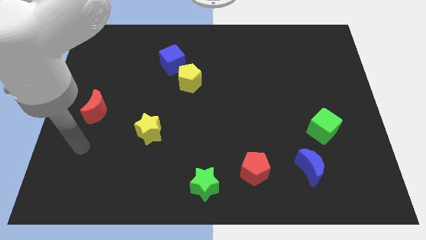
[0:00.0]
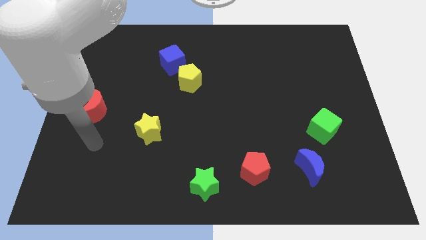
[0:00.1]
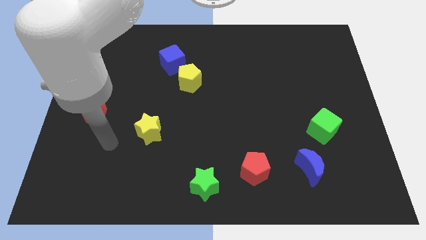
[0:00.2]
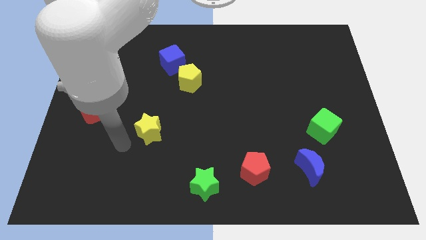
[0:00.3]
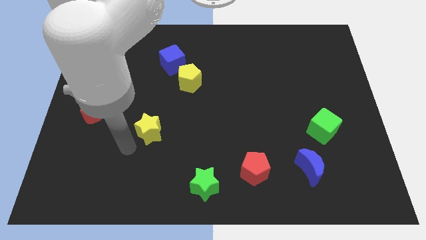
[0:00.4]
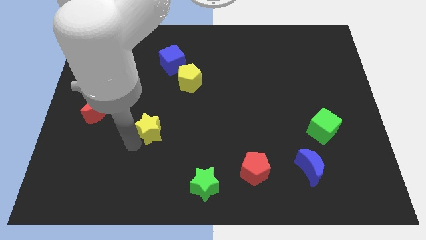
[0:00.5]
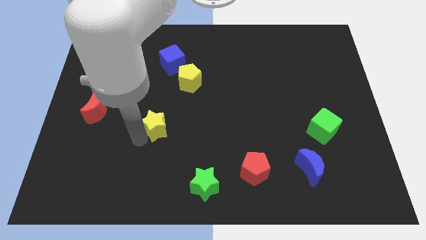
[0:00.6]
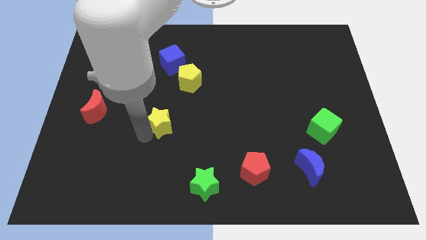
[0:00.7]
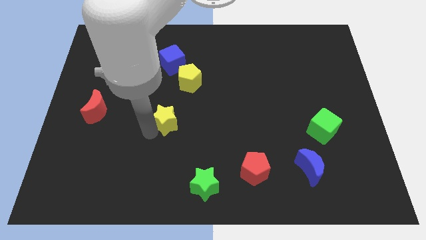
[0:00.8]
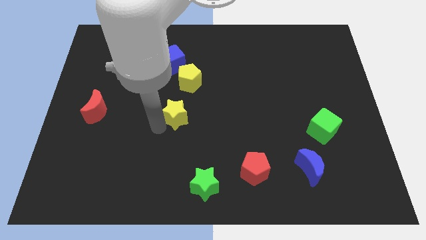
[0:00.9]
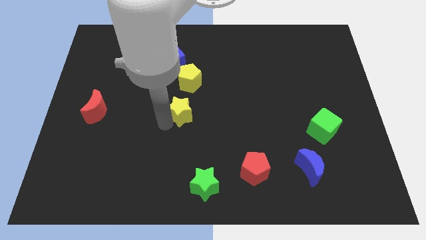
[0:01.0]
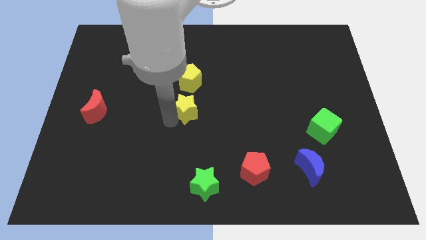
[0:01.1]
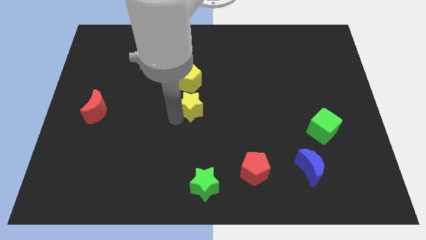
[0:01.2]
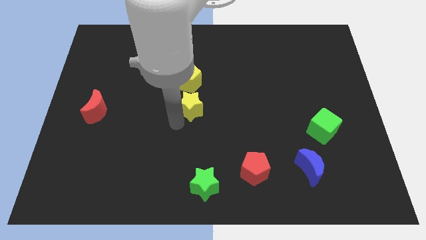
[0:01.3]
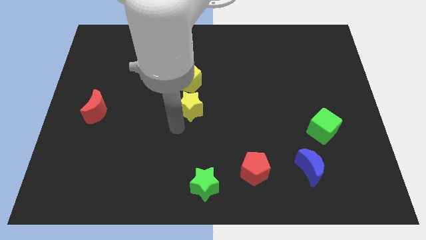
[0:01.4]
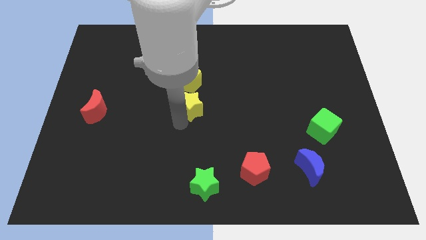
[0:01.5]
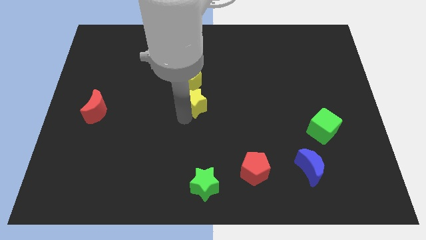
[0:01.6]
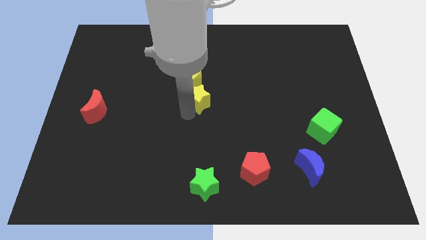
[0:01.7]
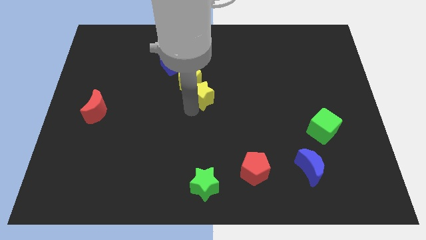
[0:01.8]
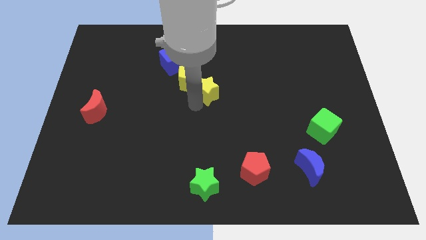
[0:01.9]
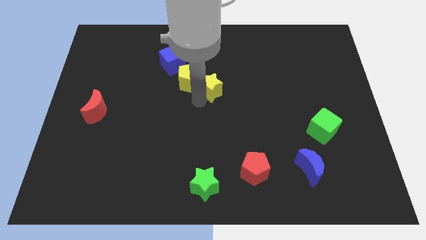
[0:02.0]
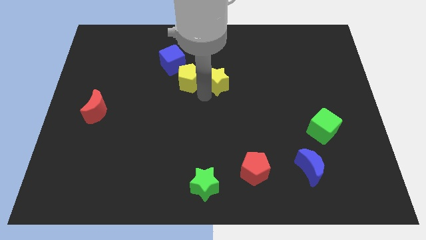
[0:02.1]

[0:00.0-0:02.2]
move the yellow star upwards and to the right

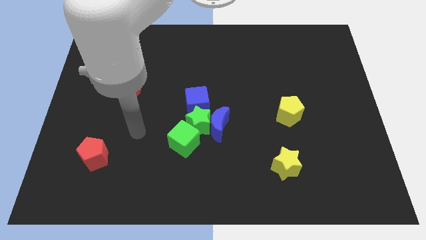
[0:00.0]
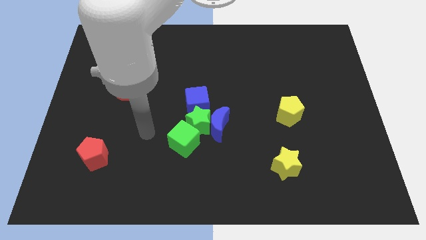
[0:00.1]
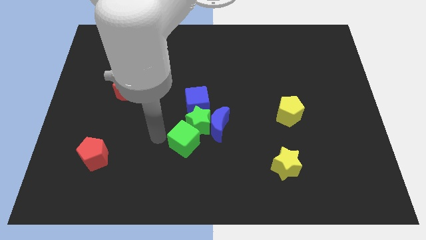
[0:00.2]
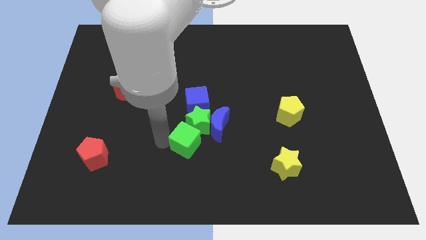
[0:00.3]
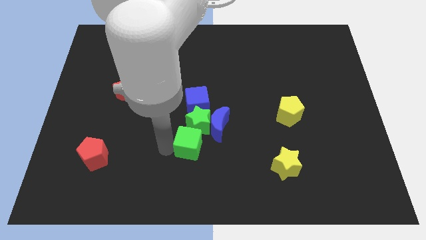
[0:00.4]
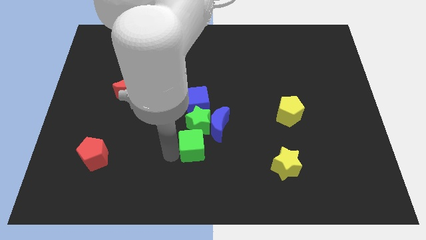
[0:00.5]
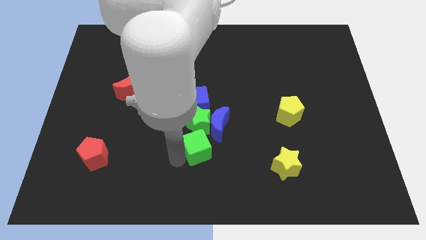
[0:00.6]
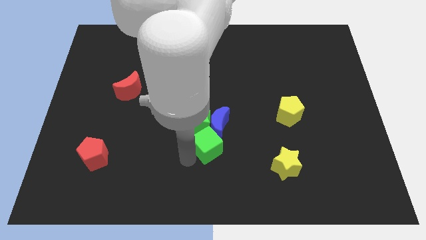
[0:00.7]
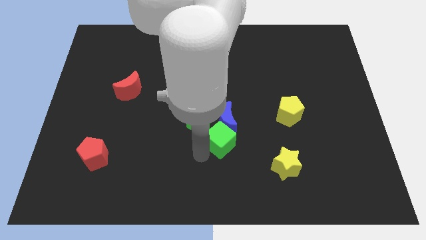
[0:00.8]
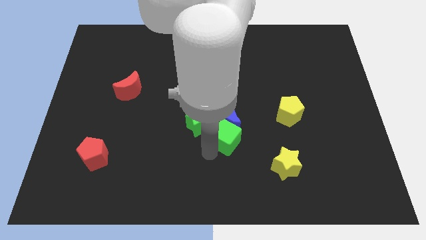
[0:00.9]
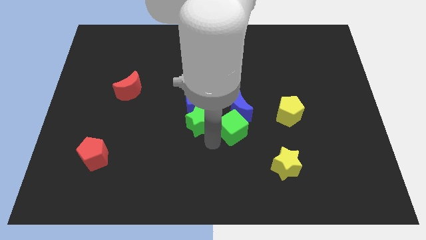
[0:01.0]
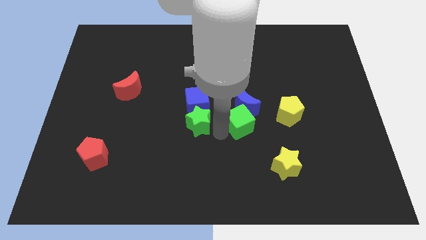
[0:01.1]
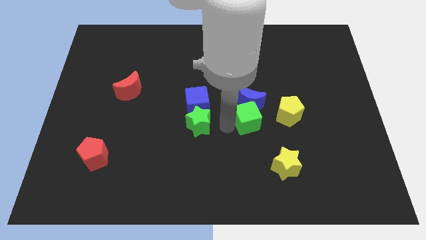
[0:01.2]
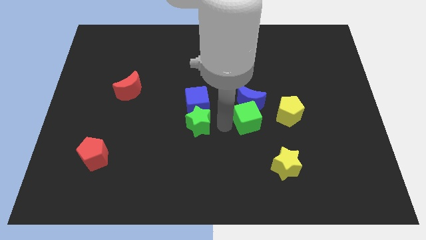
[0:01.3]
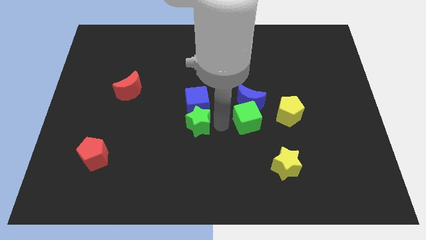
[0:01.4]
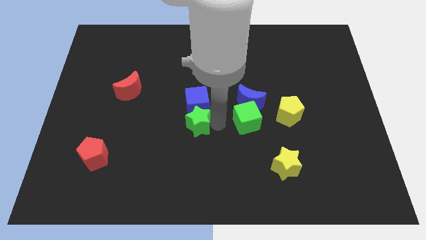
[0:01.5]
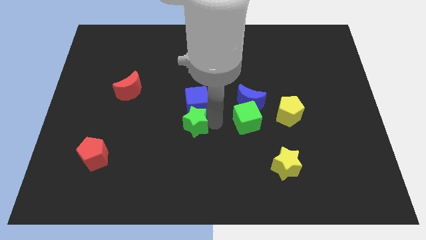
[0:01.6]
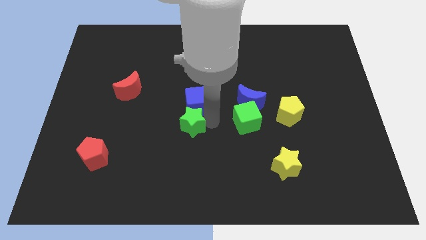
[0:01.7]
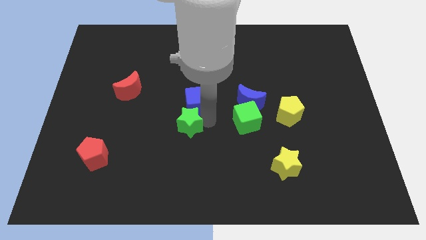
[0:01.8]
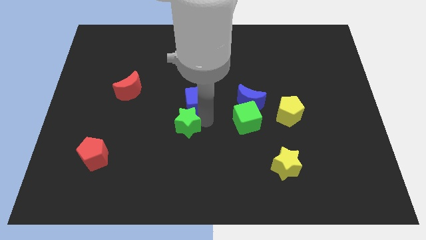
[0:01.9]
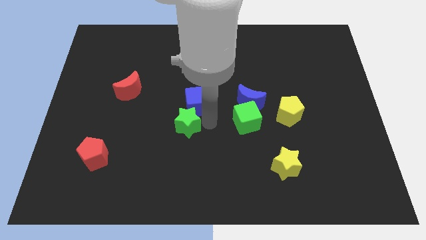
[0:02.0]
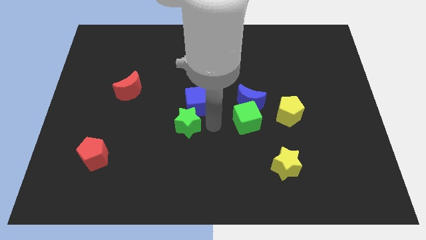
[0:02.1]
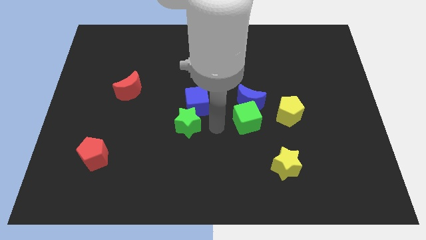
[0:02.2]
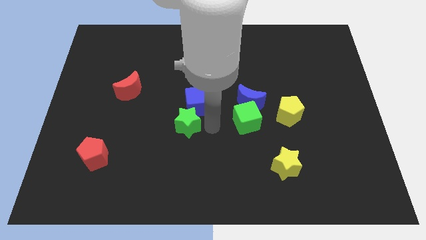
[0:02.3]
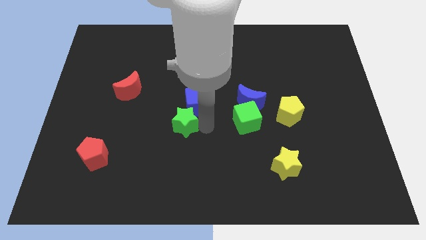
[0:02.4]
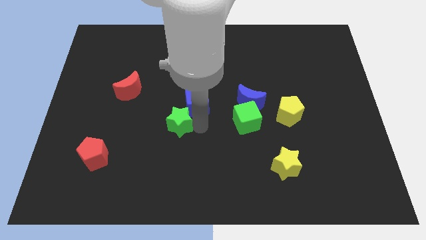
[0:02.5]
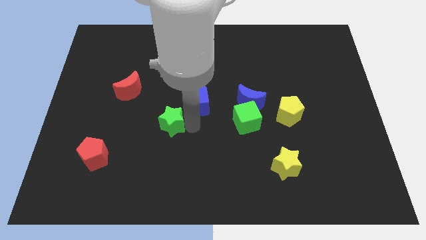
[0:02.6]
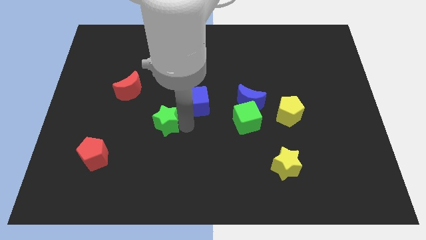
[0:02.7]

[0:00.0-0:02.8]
move the green star left a bit

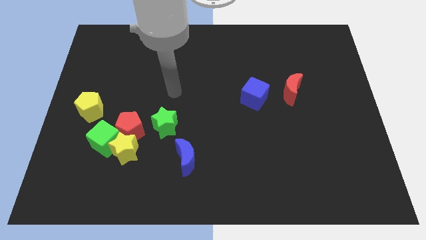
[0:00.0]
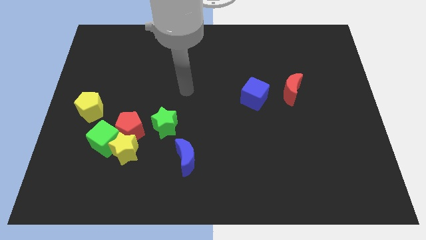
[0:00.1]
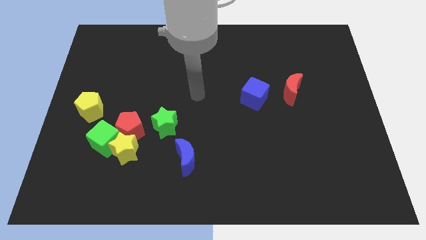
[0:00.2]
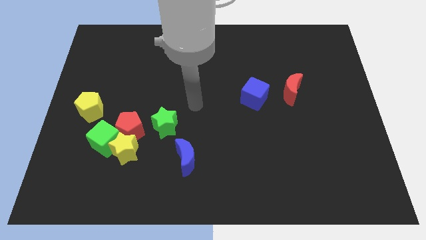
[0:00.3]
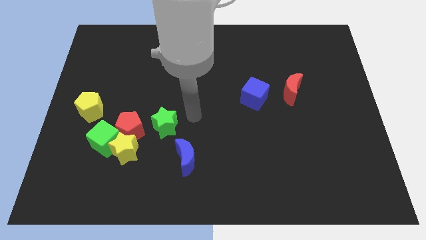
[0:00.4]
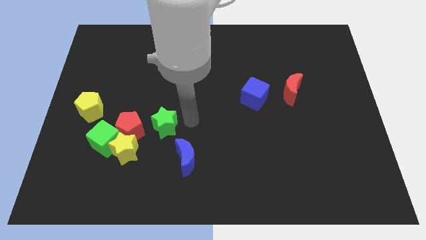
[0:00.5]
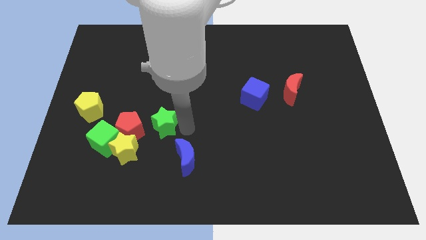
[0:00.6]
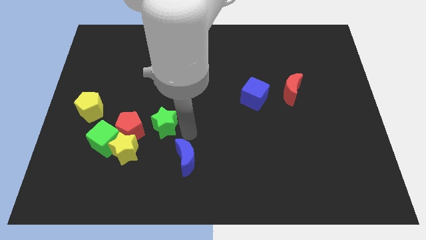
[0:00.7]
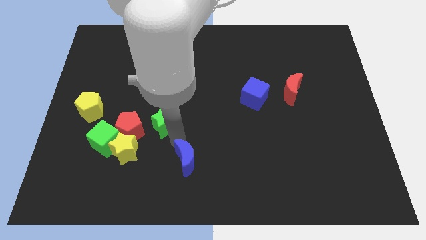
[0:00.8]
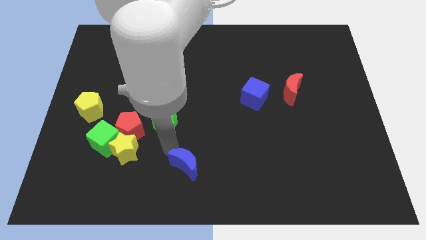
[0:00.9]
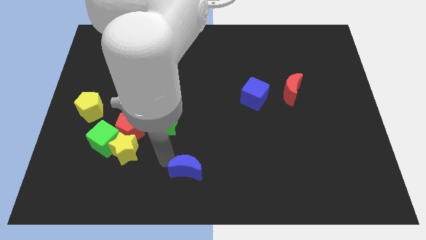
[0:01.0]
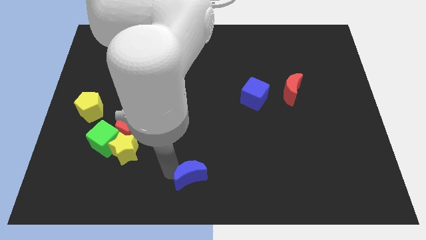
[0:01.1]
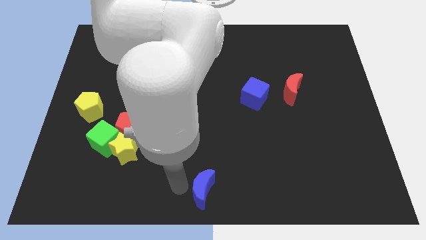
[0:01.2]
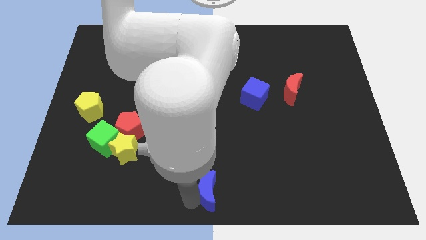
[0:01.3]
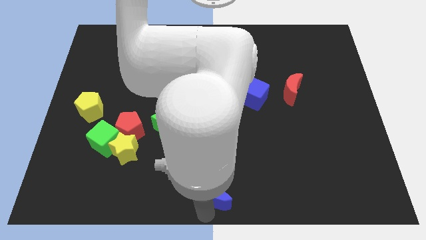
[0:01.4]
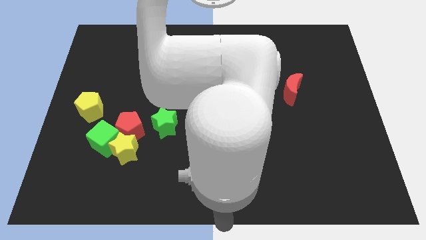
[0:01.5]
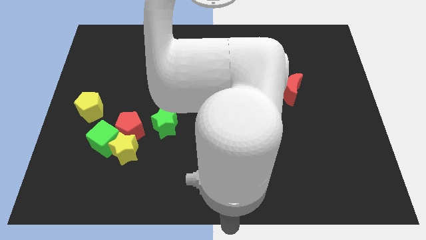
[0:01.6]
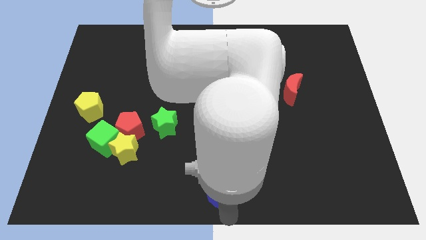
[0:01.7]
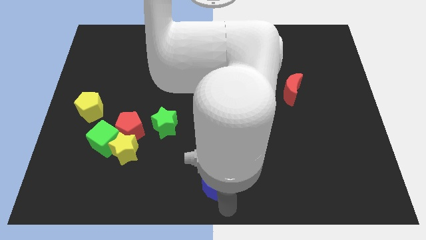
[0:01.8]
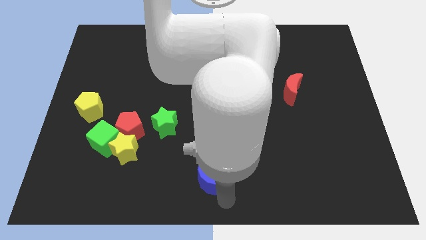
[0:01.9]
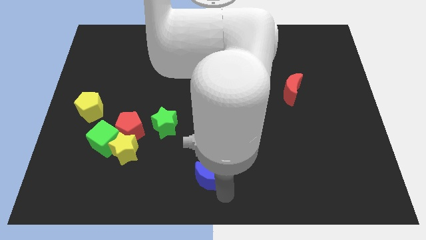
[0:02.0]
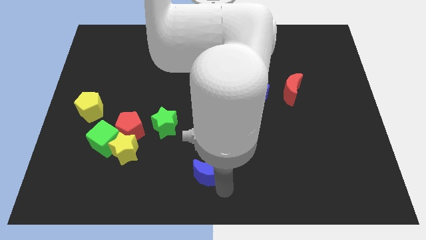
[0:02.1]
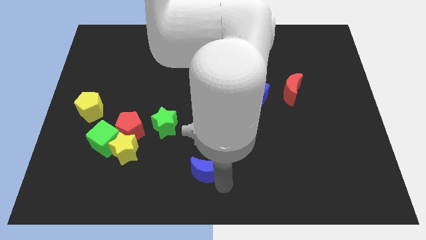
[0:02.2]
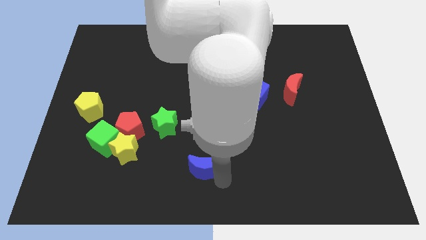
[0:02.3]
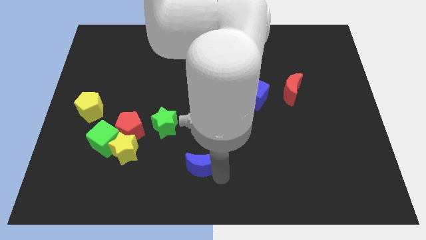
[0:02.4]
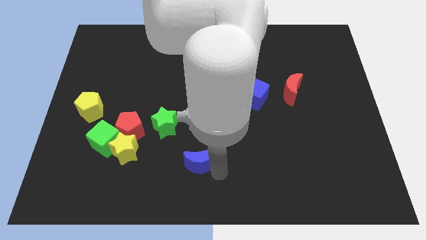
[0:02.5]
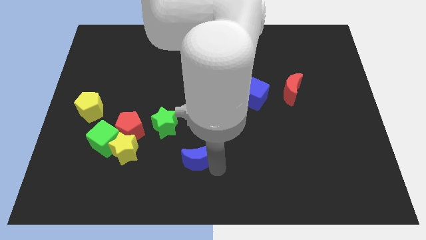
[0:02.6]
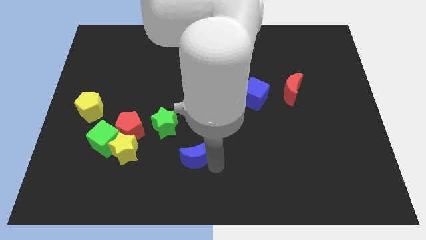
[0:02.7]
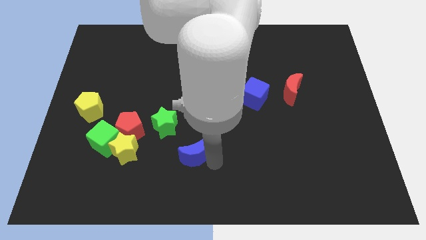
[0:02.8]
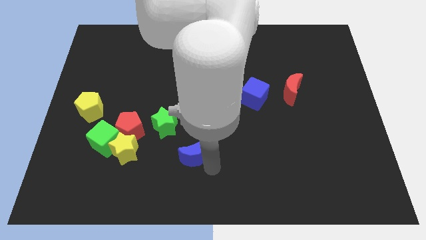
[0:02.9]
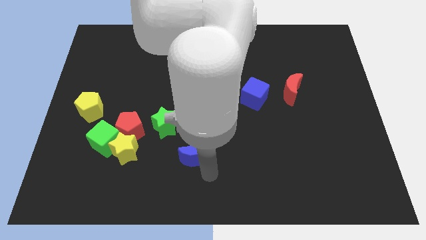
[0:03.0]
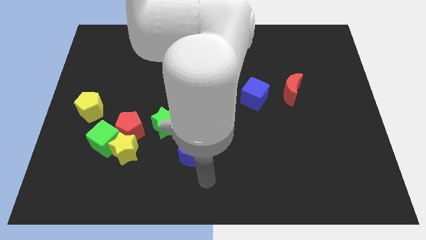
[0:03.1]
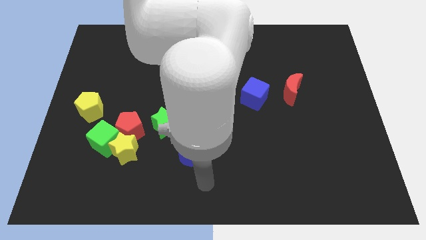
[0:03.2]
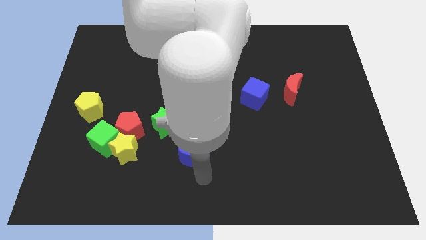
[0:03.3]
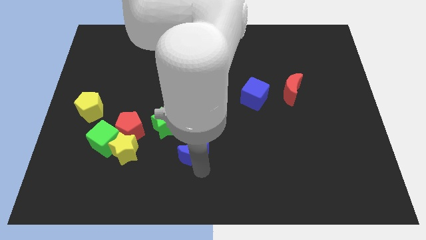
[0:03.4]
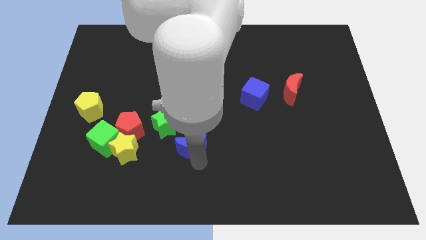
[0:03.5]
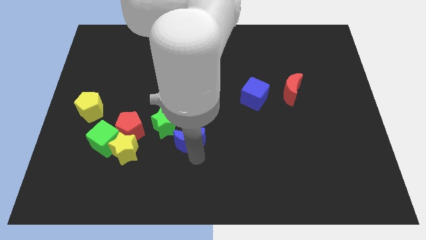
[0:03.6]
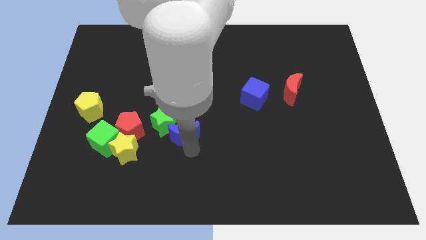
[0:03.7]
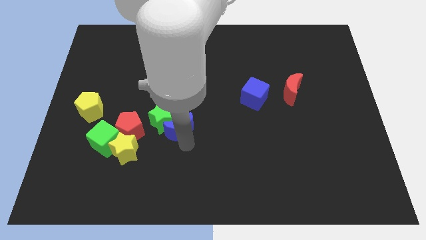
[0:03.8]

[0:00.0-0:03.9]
slide the blue moon slightly upwards
